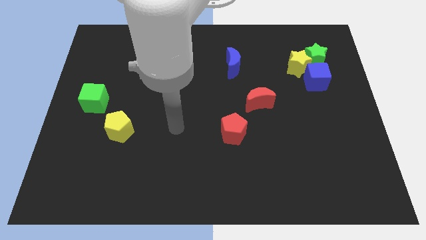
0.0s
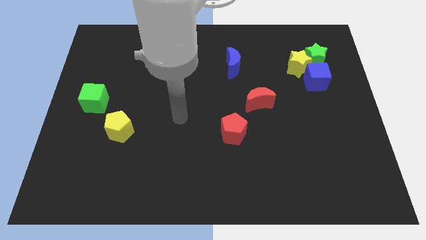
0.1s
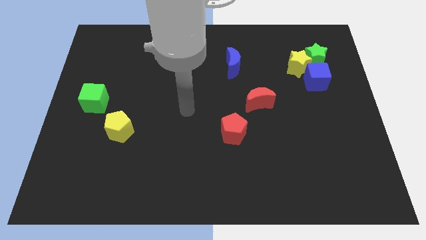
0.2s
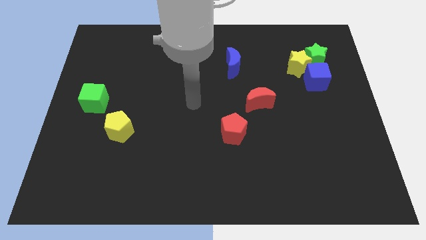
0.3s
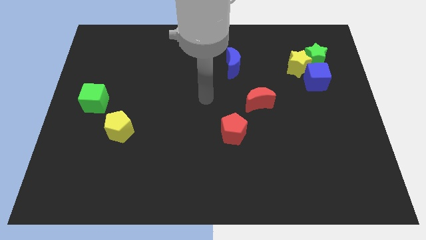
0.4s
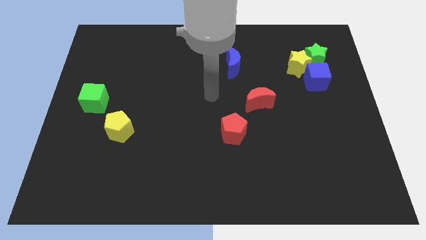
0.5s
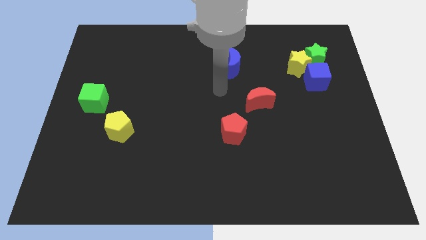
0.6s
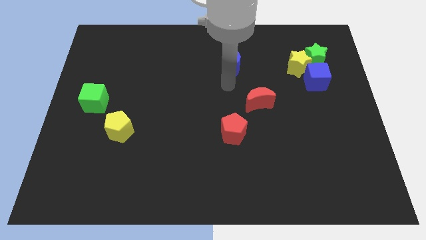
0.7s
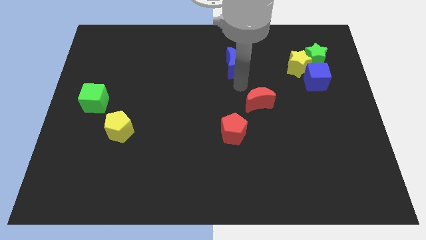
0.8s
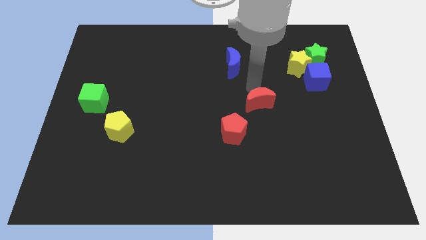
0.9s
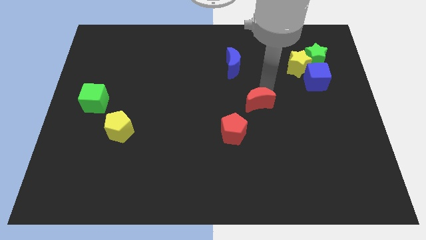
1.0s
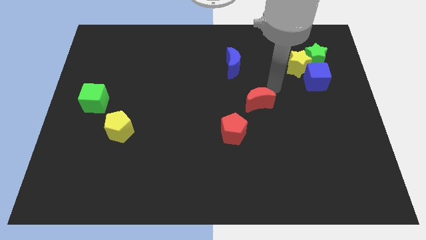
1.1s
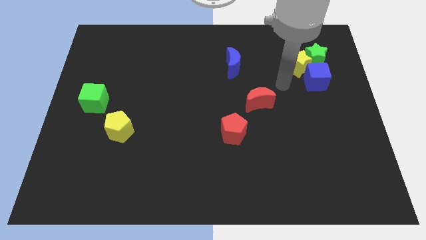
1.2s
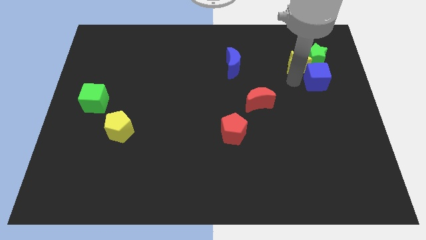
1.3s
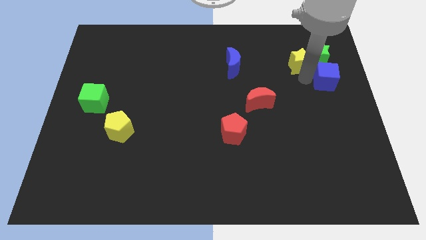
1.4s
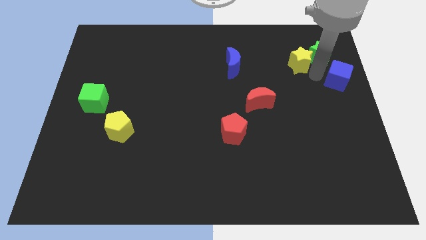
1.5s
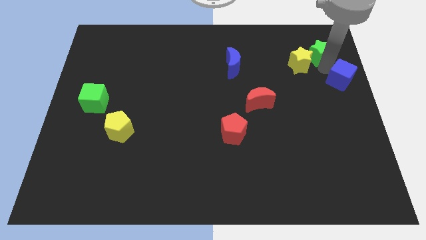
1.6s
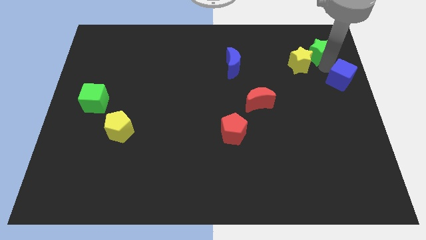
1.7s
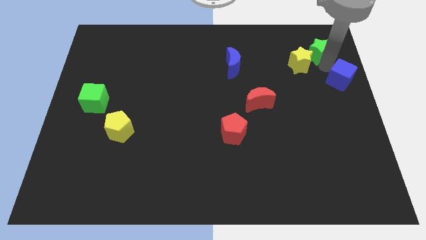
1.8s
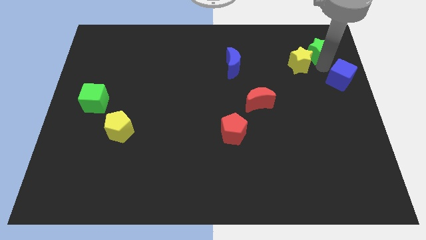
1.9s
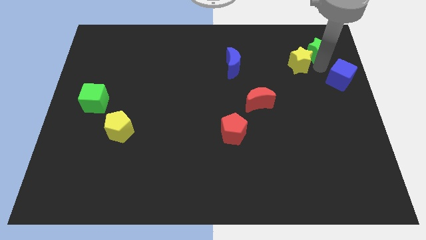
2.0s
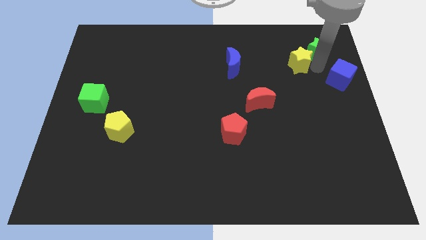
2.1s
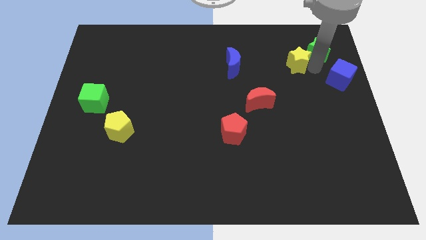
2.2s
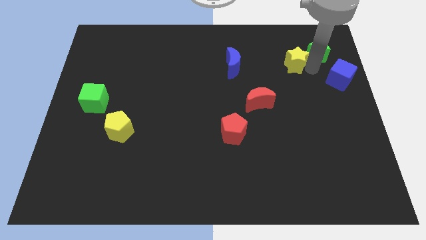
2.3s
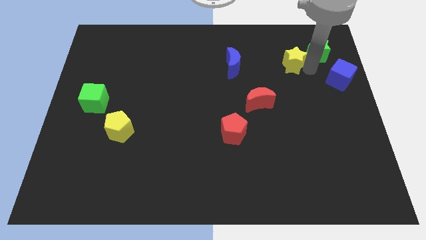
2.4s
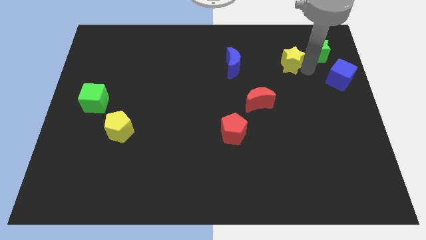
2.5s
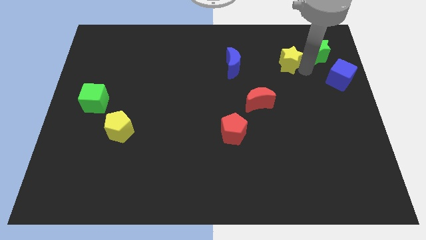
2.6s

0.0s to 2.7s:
separate the yellow star from the green star and blue cube

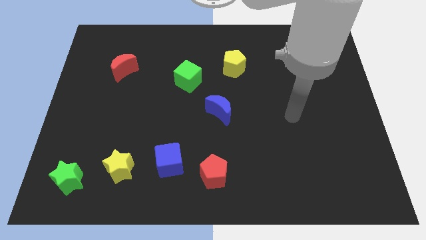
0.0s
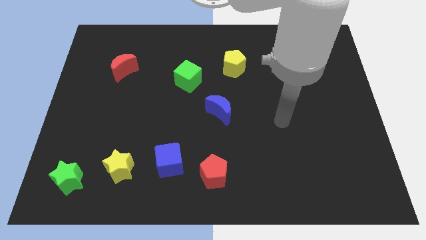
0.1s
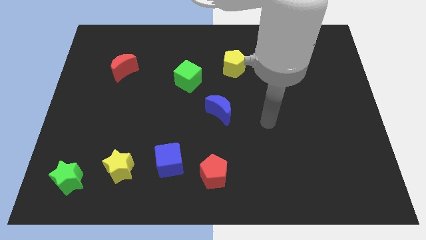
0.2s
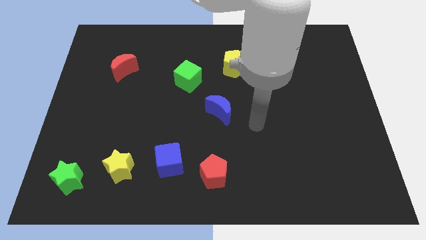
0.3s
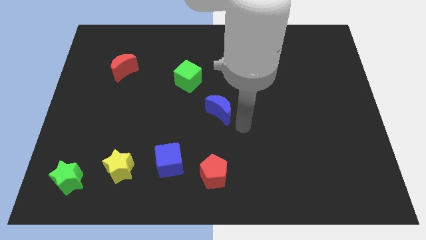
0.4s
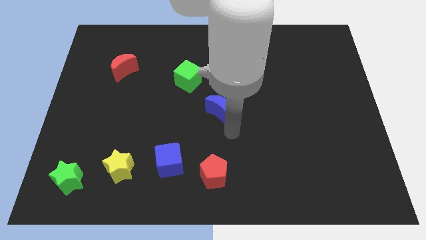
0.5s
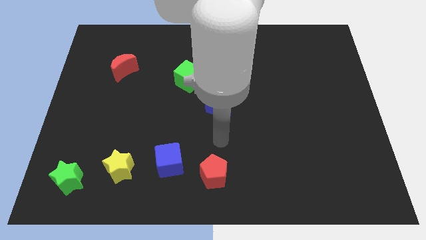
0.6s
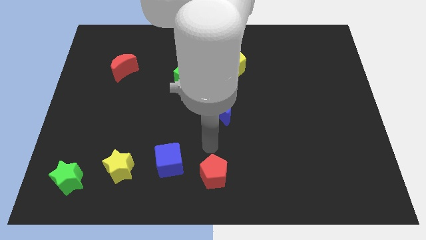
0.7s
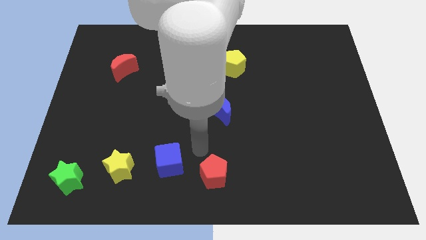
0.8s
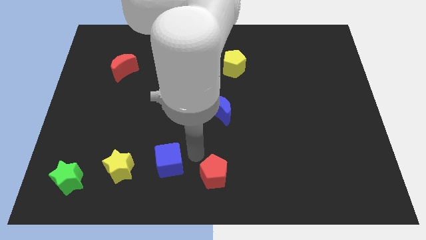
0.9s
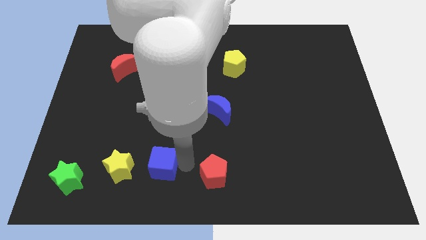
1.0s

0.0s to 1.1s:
separate the red pentagon from the blue cube

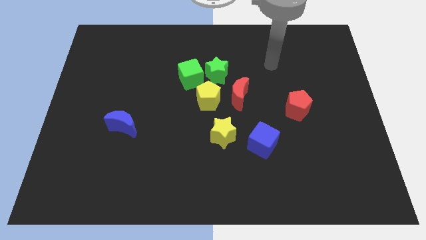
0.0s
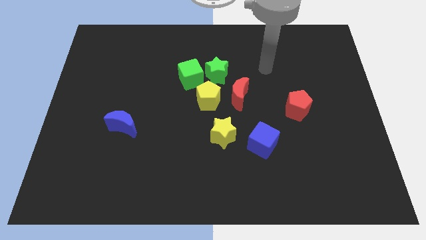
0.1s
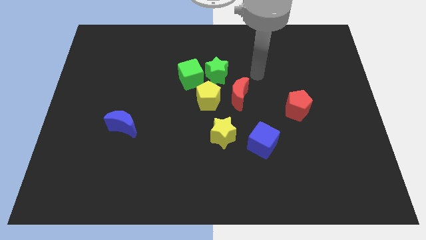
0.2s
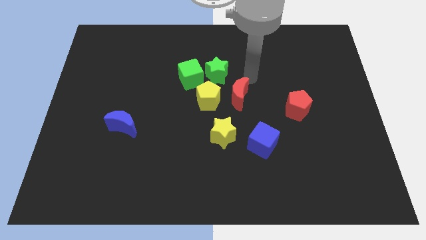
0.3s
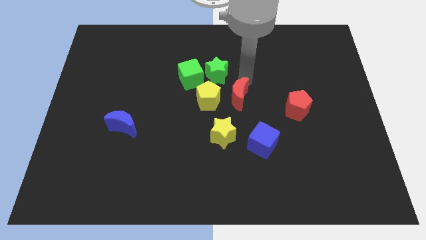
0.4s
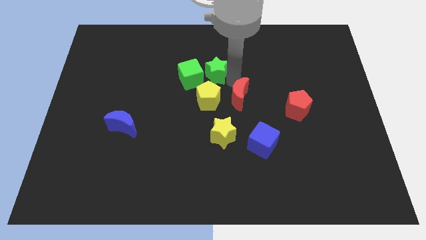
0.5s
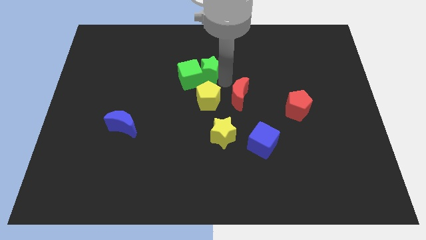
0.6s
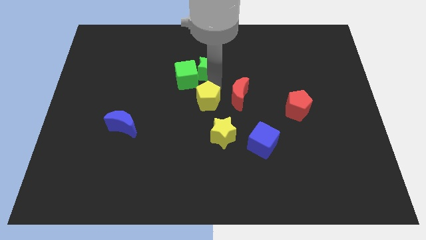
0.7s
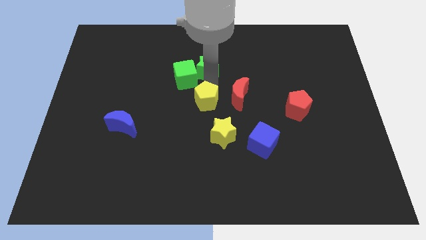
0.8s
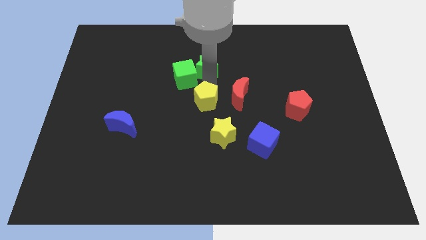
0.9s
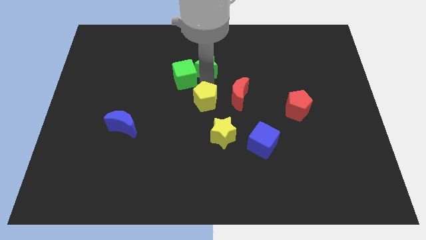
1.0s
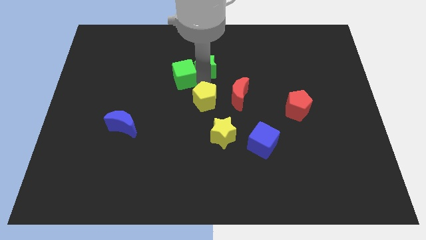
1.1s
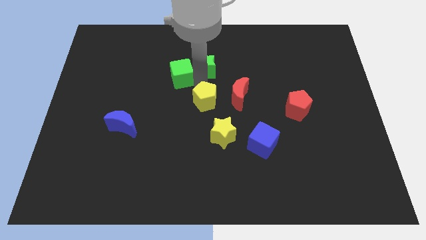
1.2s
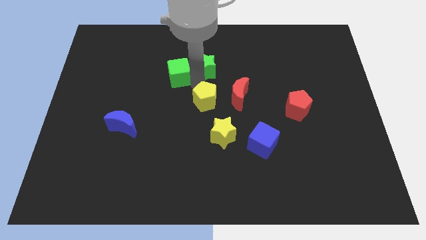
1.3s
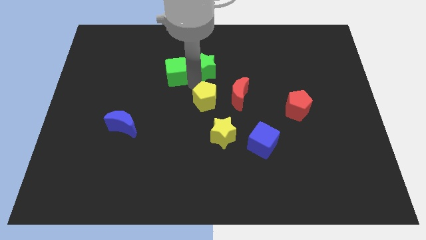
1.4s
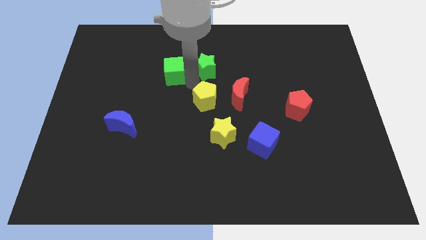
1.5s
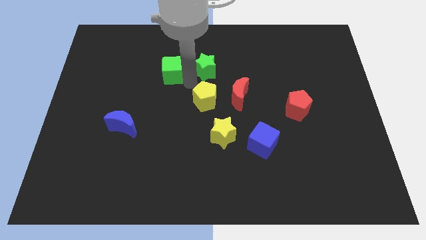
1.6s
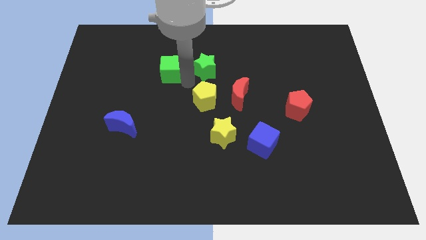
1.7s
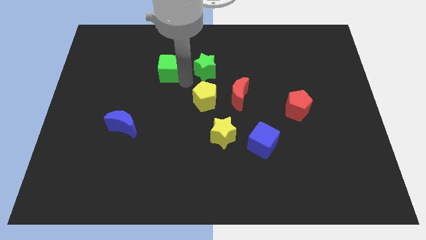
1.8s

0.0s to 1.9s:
separate the green cube from the green star and yellow pentagon

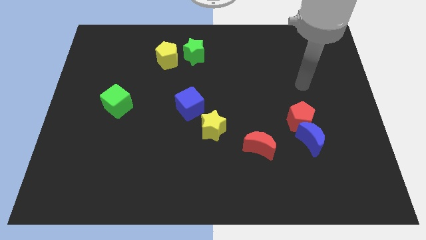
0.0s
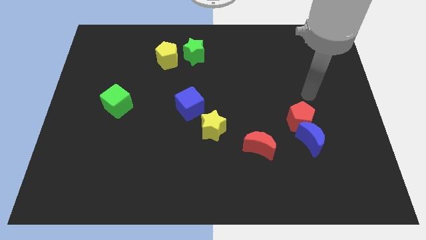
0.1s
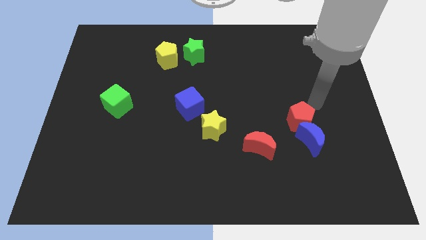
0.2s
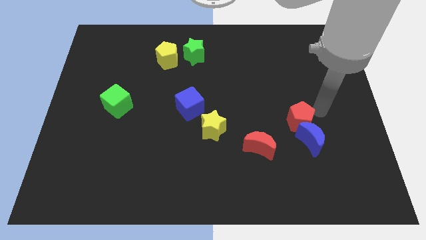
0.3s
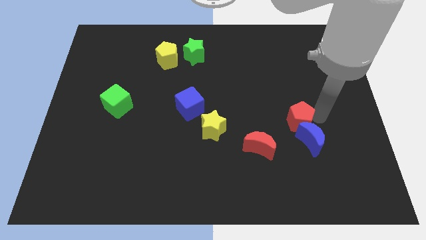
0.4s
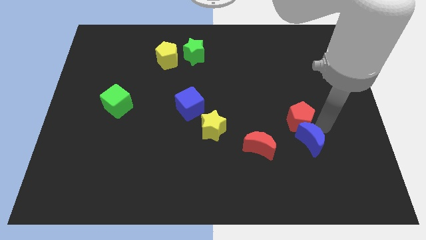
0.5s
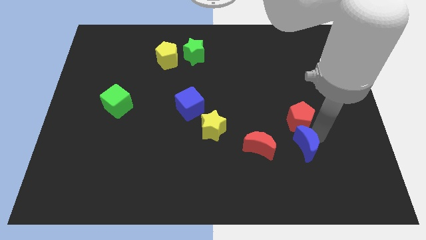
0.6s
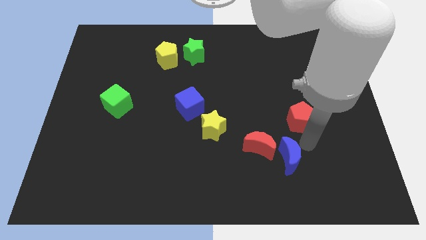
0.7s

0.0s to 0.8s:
separate the red pentagon from the blue moon

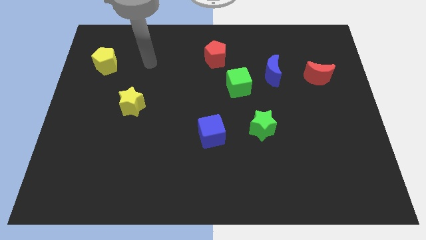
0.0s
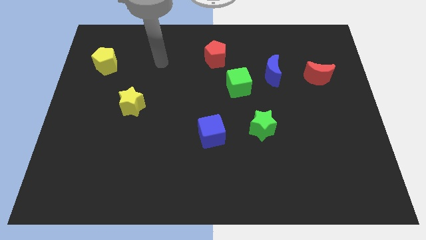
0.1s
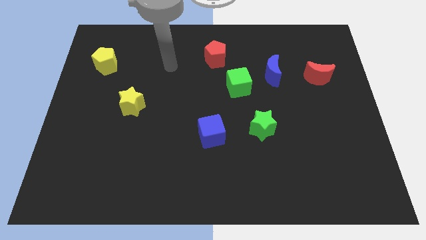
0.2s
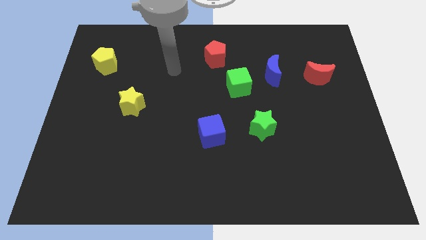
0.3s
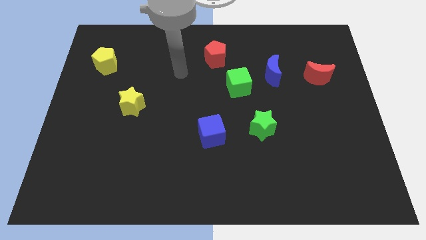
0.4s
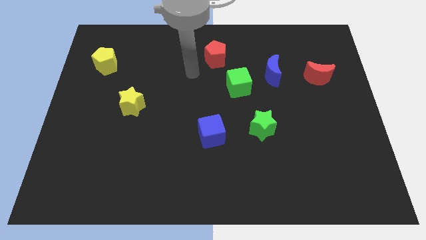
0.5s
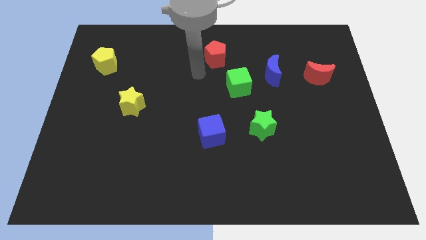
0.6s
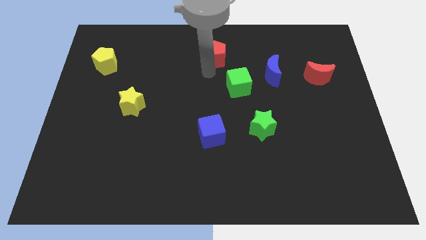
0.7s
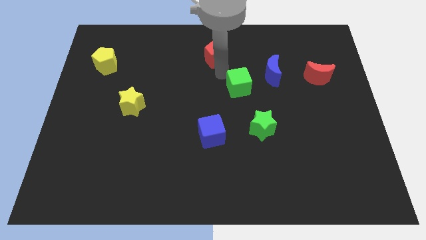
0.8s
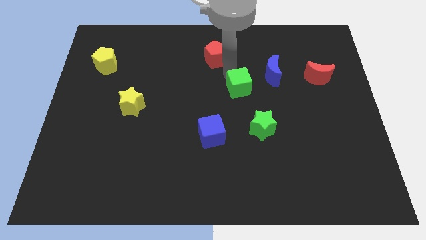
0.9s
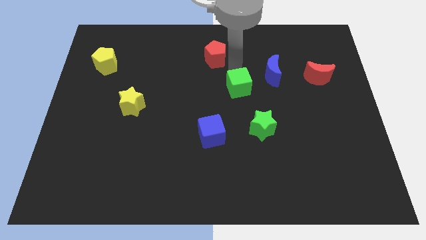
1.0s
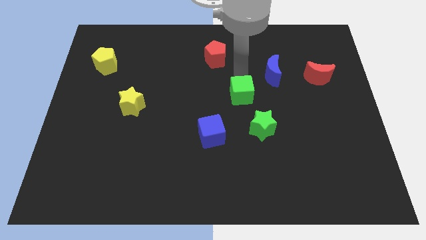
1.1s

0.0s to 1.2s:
pull the blue moon apart from the green cube

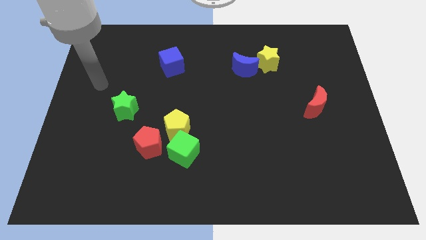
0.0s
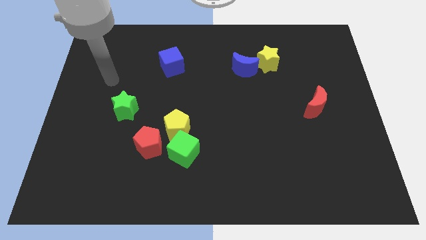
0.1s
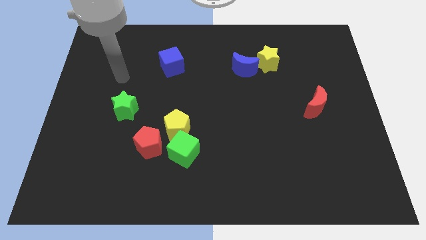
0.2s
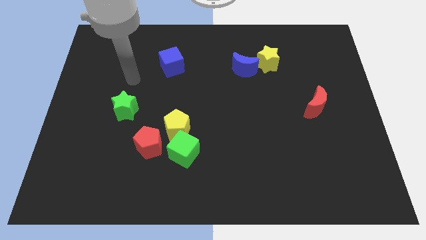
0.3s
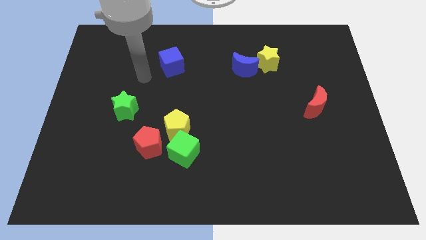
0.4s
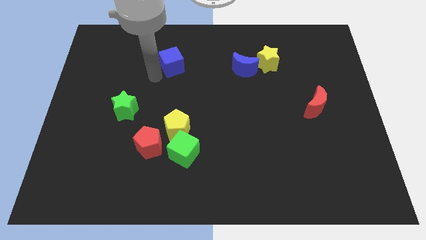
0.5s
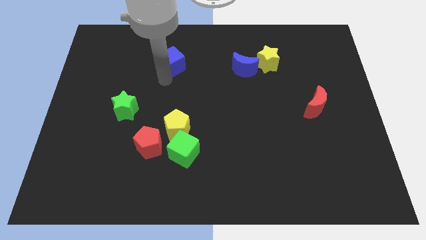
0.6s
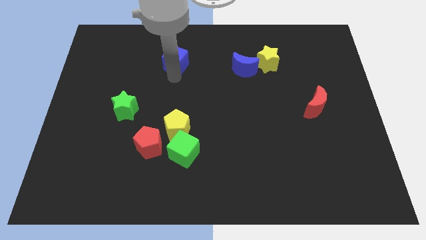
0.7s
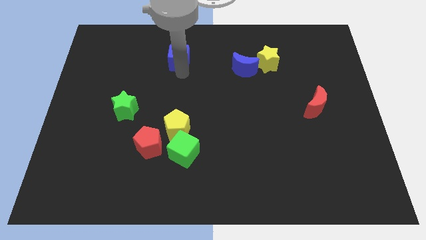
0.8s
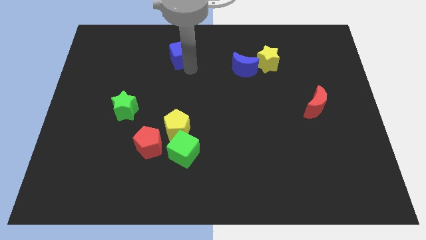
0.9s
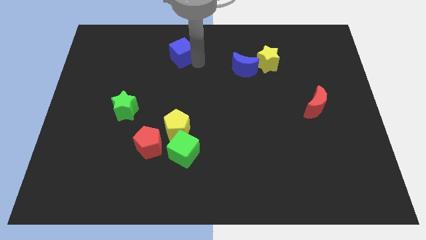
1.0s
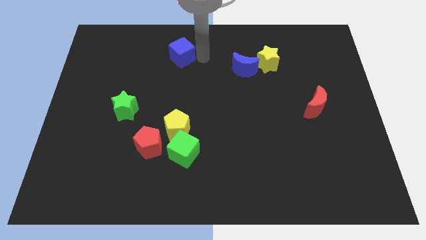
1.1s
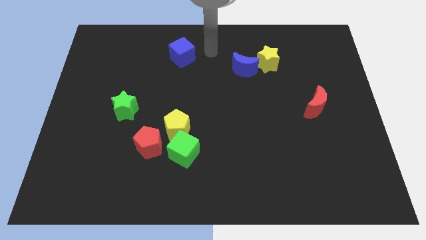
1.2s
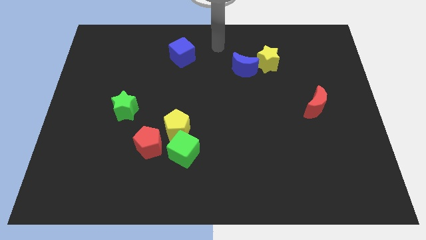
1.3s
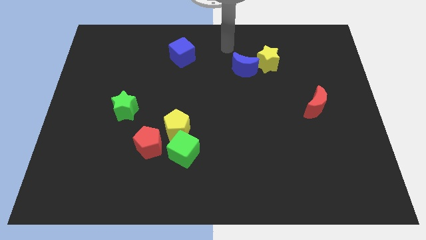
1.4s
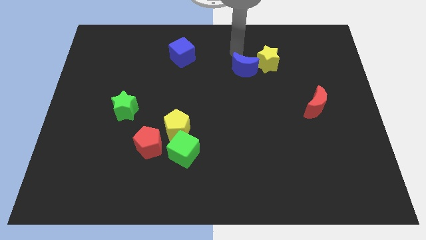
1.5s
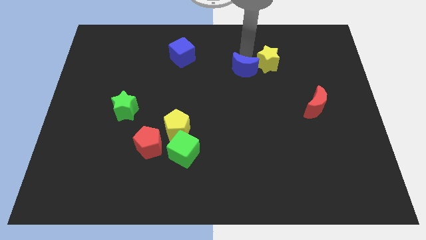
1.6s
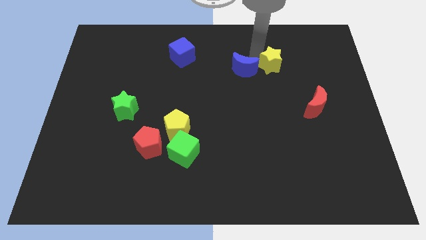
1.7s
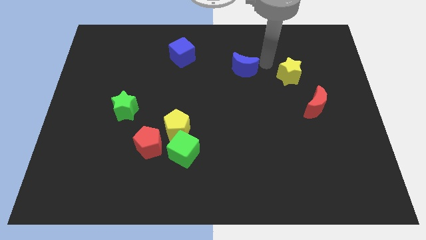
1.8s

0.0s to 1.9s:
move the blue moon away from the yellow star
